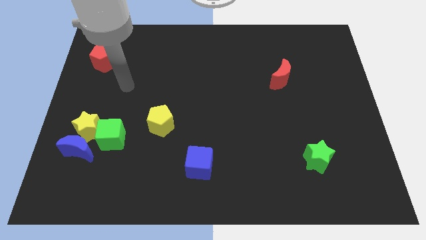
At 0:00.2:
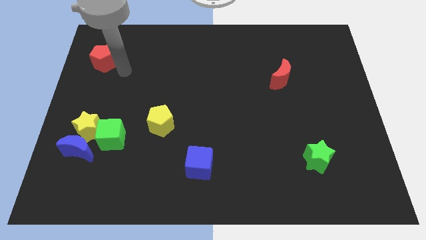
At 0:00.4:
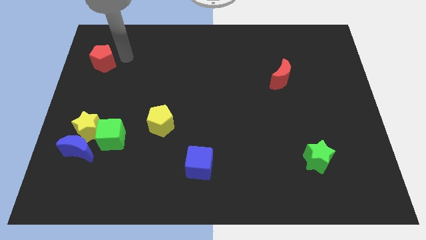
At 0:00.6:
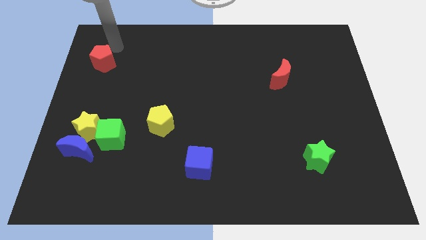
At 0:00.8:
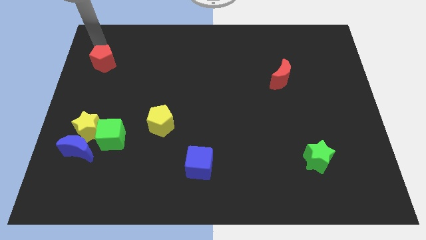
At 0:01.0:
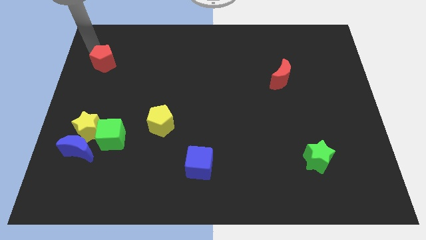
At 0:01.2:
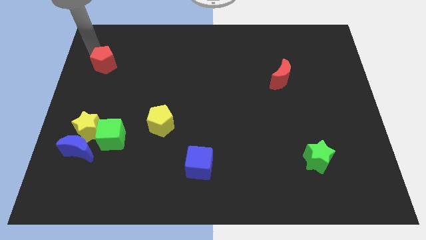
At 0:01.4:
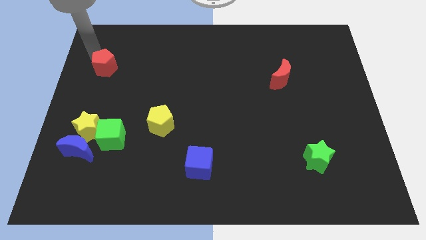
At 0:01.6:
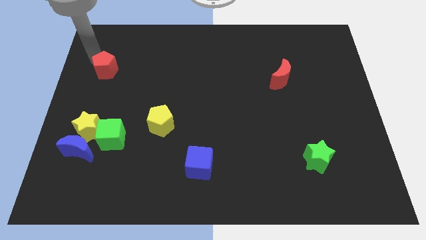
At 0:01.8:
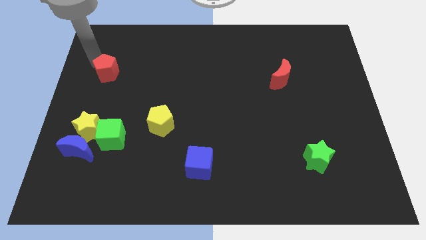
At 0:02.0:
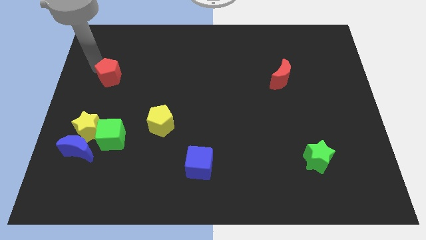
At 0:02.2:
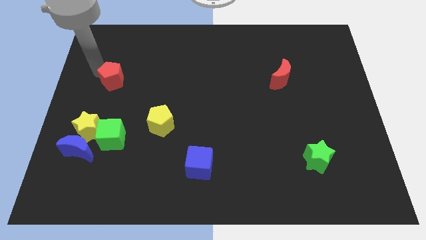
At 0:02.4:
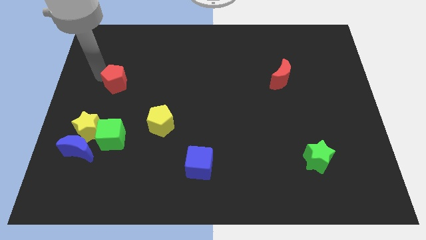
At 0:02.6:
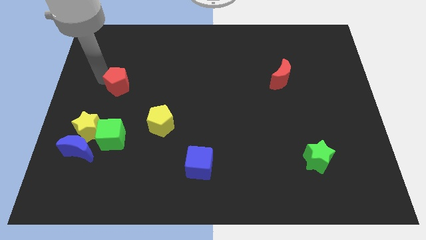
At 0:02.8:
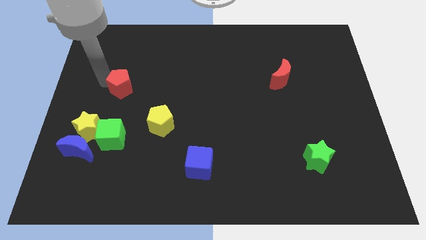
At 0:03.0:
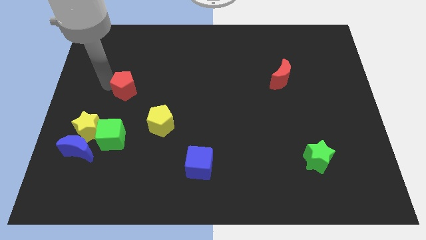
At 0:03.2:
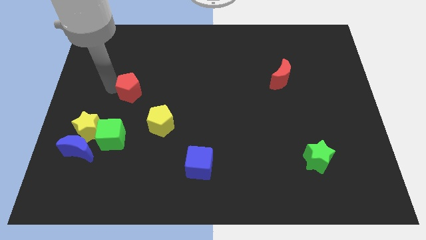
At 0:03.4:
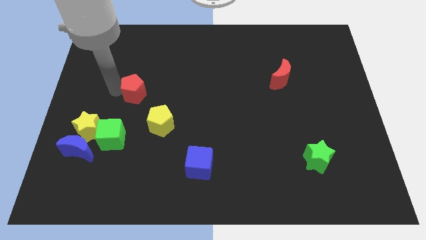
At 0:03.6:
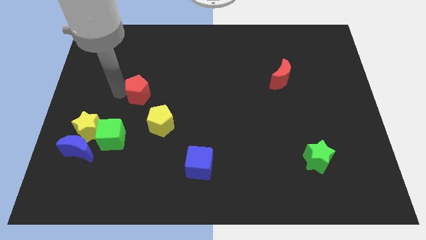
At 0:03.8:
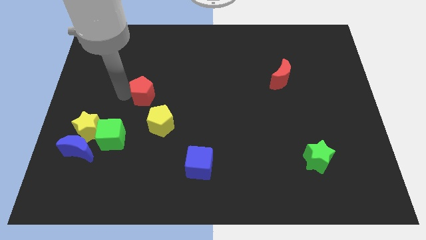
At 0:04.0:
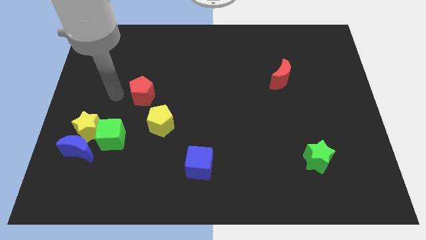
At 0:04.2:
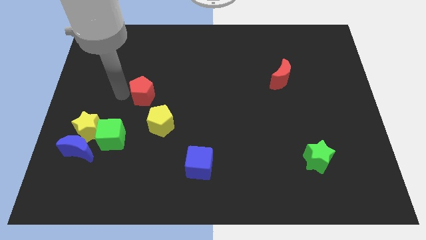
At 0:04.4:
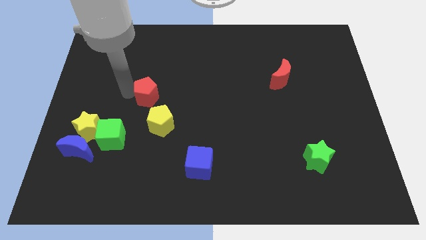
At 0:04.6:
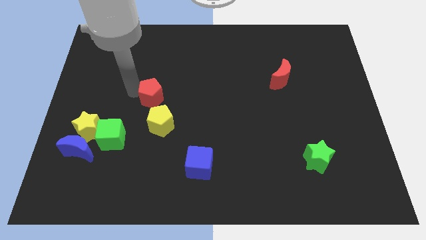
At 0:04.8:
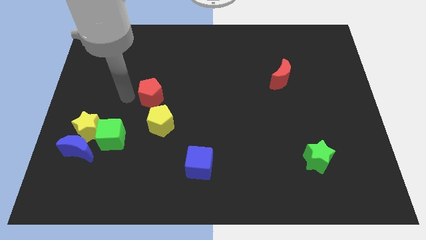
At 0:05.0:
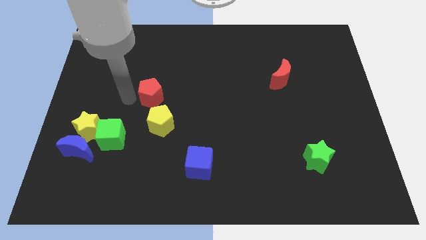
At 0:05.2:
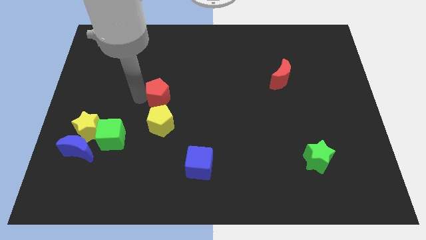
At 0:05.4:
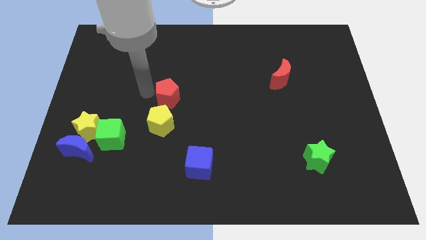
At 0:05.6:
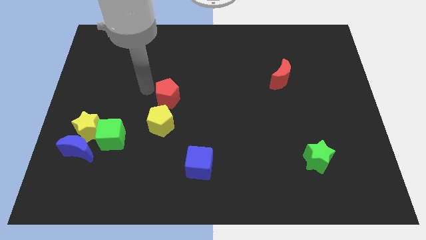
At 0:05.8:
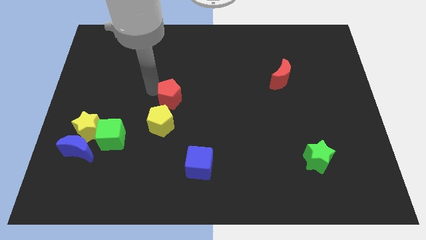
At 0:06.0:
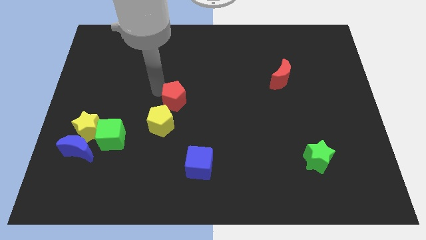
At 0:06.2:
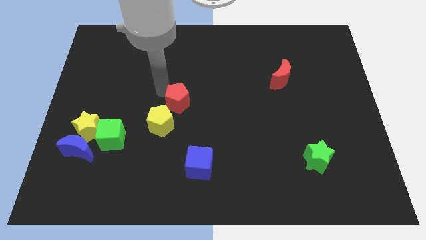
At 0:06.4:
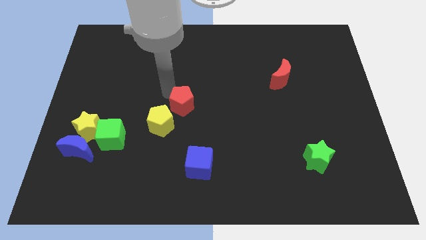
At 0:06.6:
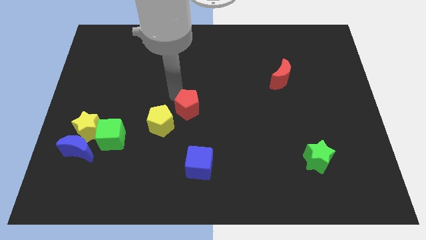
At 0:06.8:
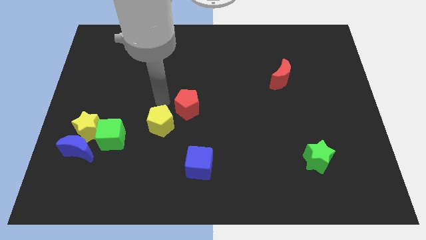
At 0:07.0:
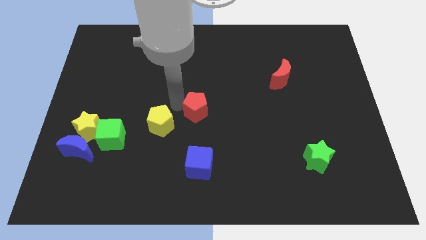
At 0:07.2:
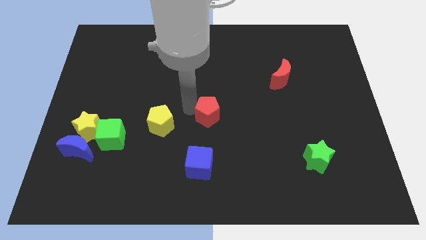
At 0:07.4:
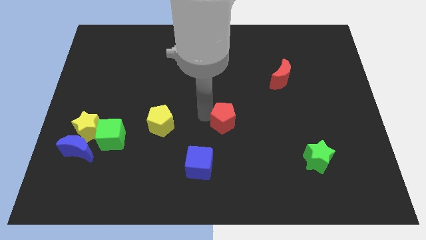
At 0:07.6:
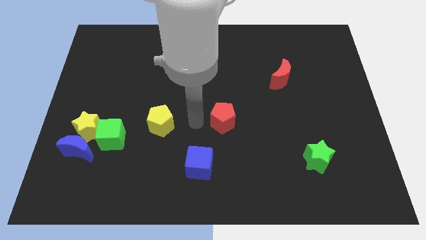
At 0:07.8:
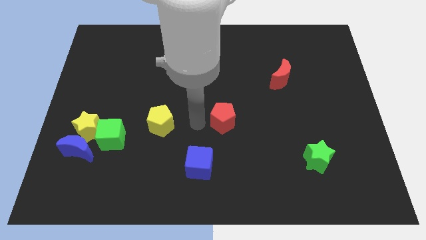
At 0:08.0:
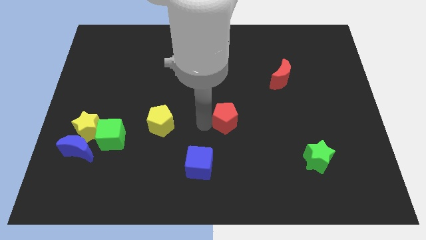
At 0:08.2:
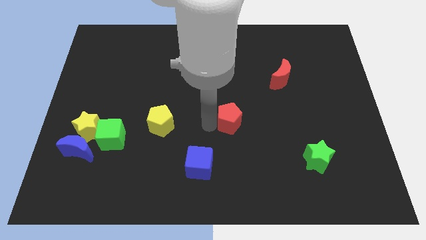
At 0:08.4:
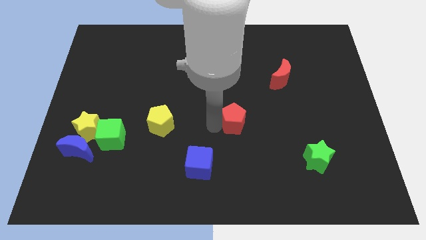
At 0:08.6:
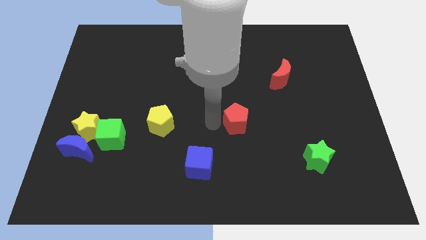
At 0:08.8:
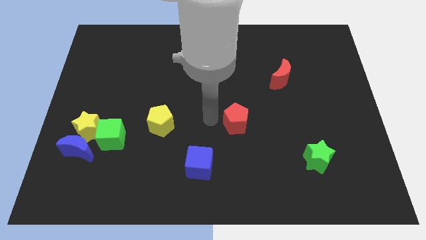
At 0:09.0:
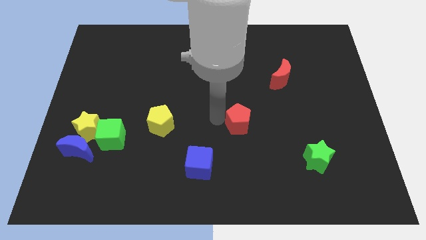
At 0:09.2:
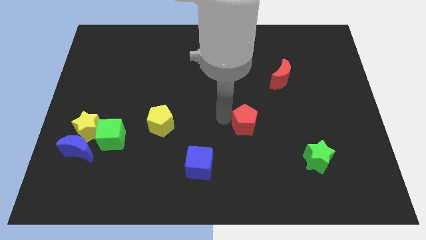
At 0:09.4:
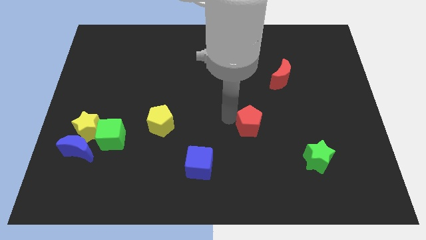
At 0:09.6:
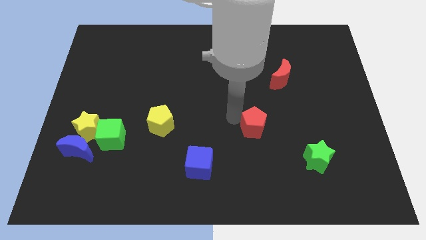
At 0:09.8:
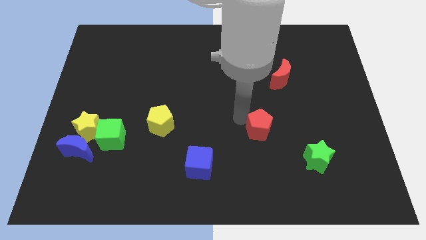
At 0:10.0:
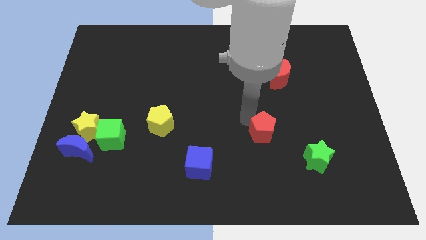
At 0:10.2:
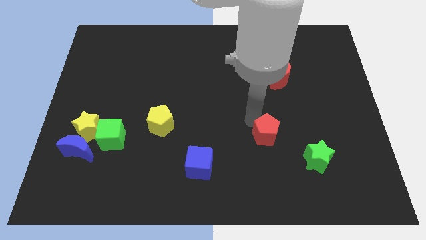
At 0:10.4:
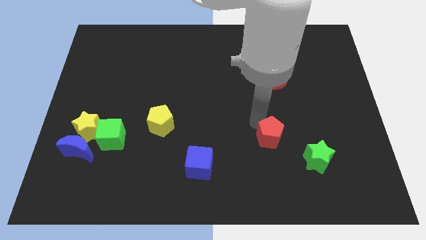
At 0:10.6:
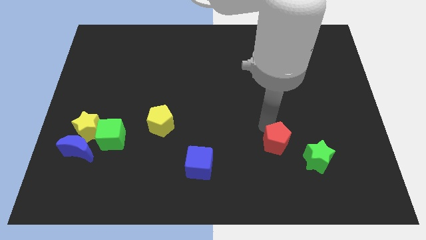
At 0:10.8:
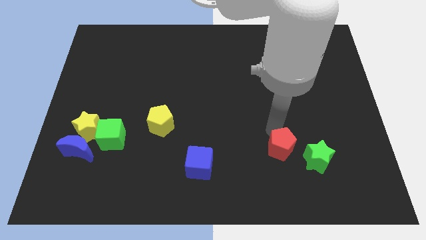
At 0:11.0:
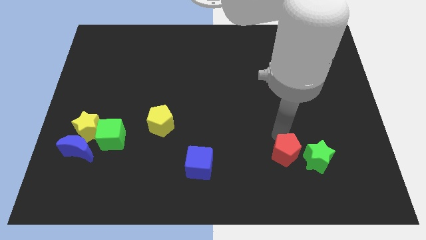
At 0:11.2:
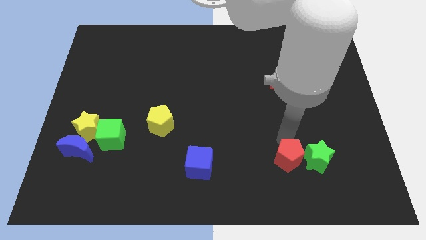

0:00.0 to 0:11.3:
move the red pentagon to the green star
